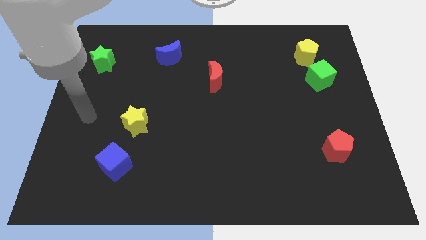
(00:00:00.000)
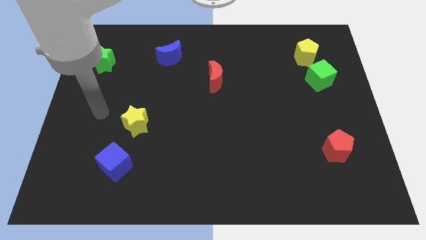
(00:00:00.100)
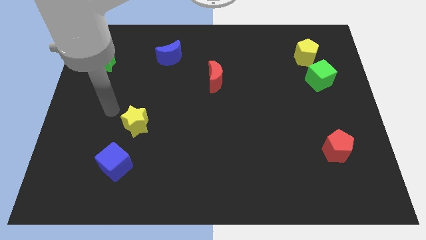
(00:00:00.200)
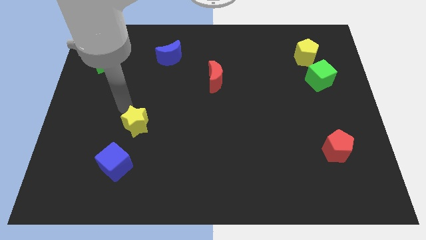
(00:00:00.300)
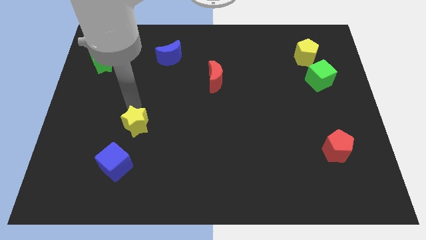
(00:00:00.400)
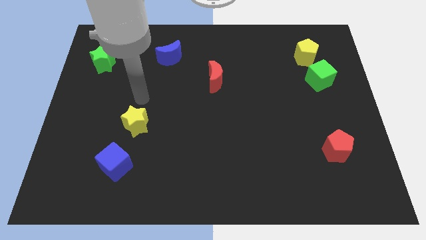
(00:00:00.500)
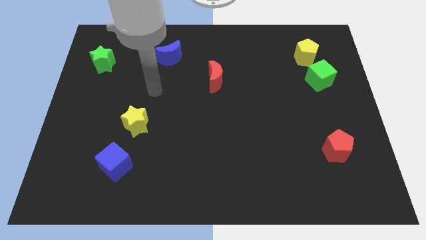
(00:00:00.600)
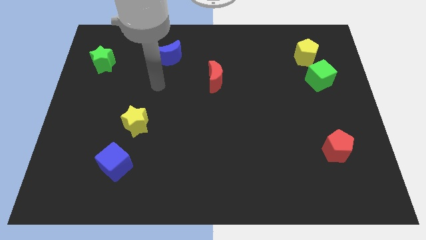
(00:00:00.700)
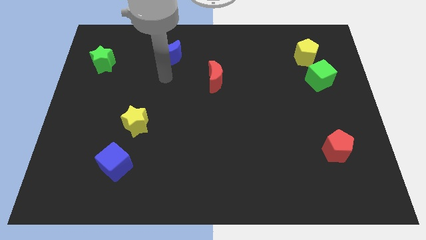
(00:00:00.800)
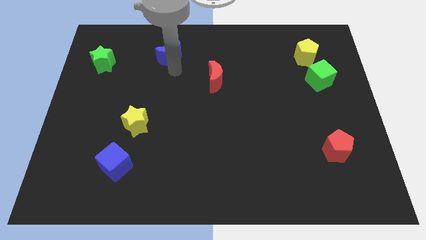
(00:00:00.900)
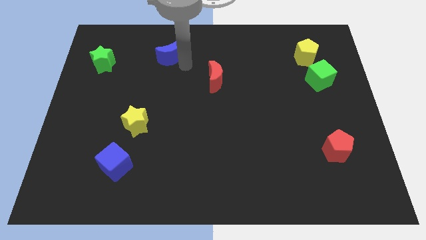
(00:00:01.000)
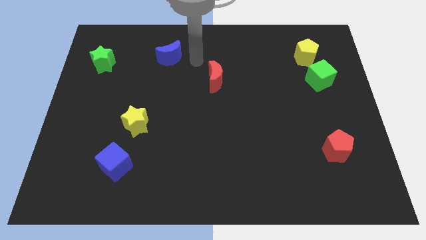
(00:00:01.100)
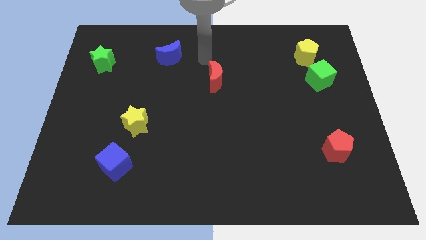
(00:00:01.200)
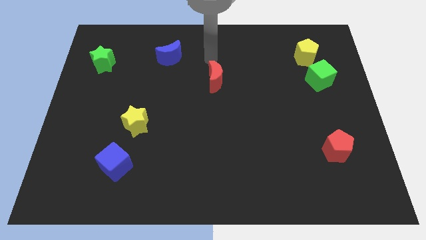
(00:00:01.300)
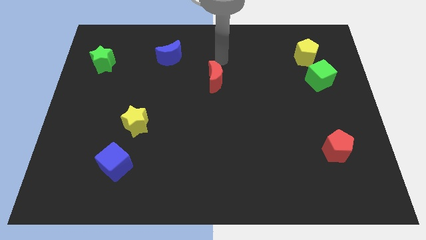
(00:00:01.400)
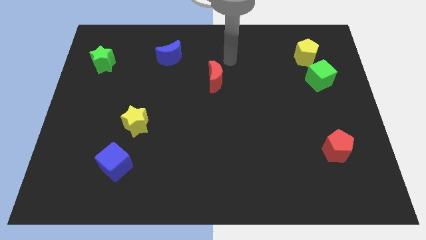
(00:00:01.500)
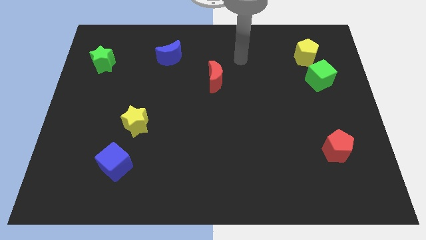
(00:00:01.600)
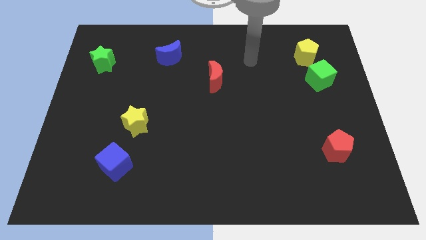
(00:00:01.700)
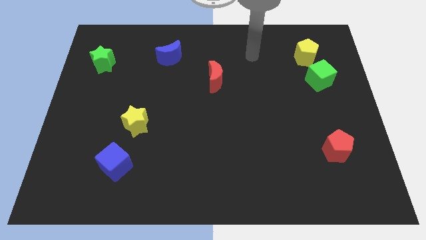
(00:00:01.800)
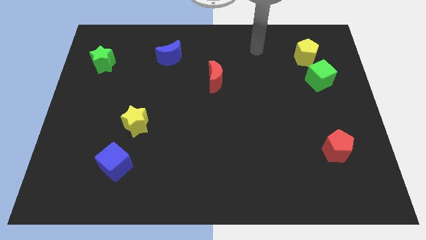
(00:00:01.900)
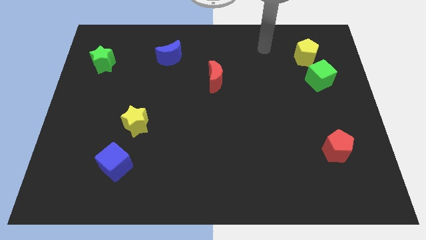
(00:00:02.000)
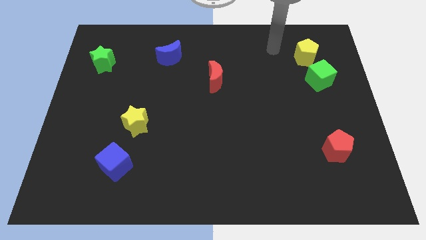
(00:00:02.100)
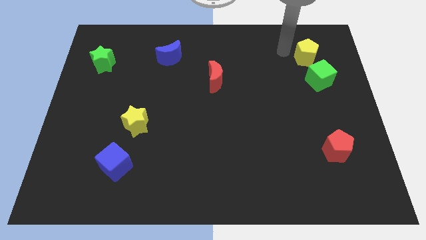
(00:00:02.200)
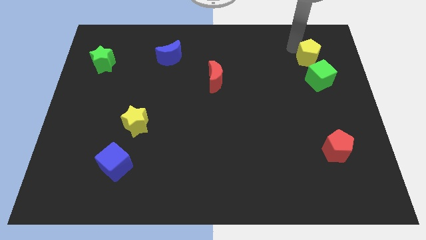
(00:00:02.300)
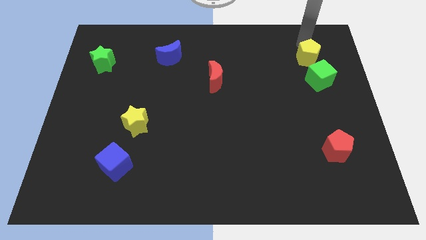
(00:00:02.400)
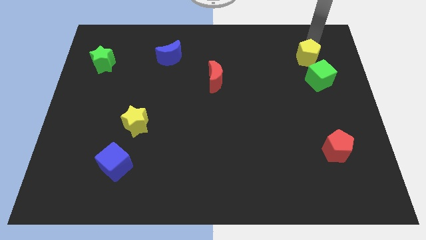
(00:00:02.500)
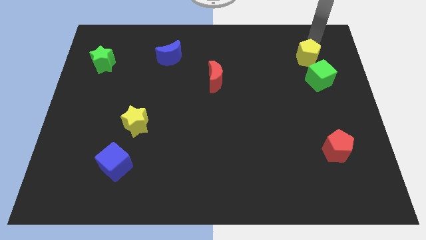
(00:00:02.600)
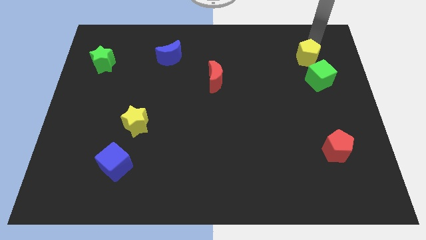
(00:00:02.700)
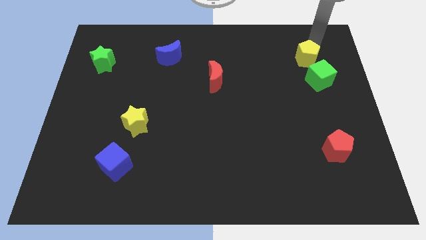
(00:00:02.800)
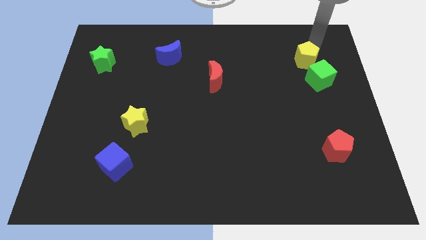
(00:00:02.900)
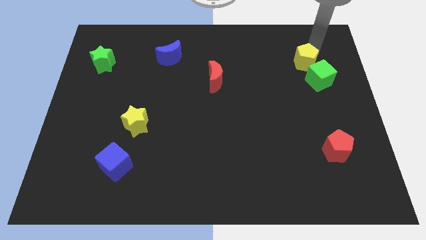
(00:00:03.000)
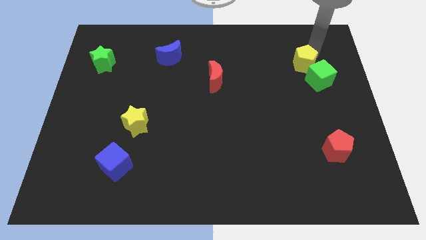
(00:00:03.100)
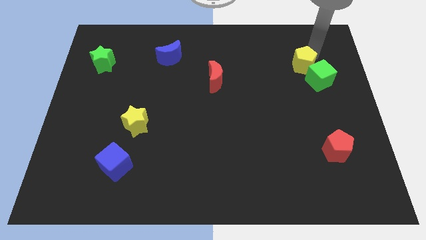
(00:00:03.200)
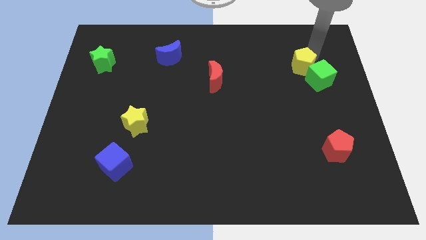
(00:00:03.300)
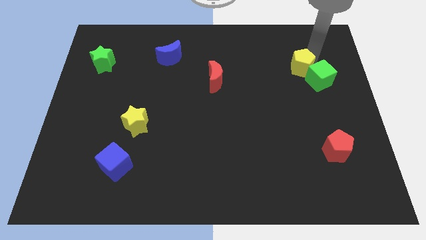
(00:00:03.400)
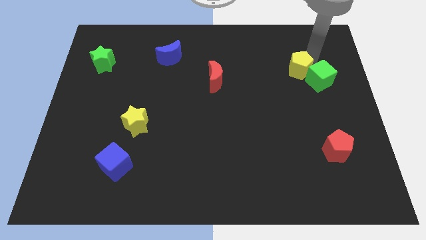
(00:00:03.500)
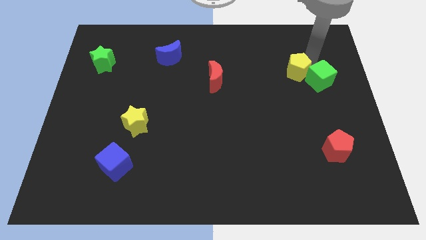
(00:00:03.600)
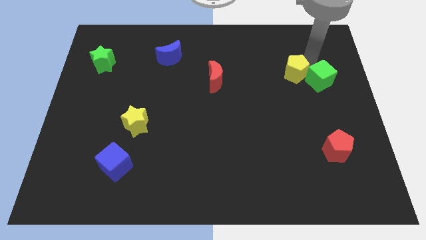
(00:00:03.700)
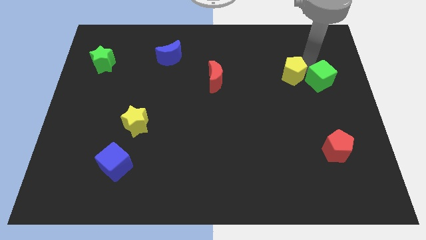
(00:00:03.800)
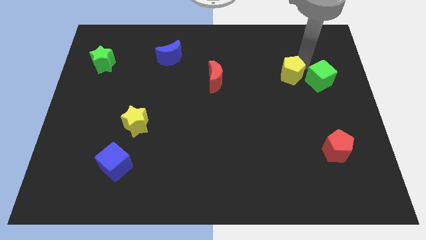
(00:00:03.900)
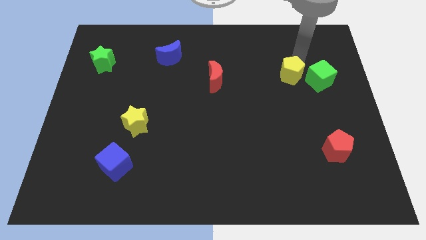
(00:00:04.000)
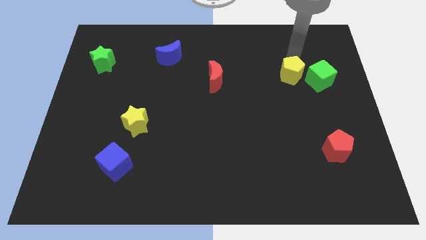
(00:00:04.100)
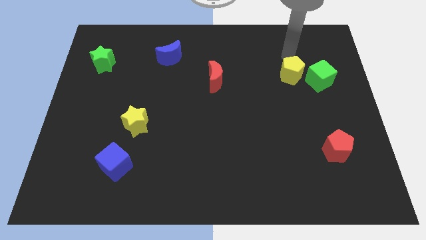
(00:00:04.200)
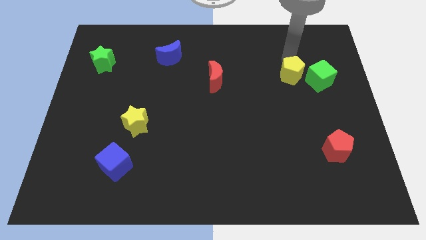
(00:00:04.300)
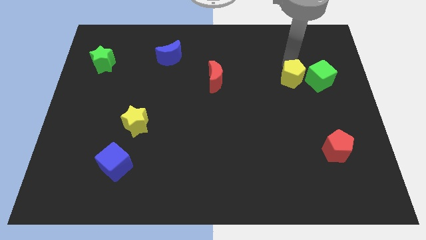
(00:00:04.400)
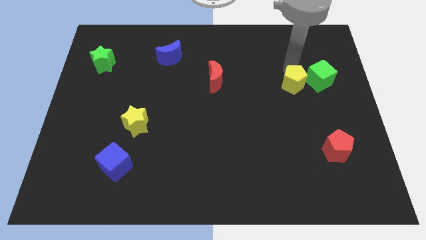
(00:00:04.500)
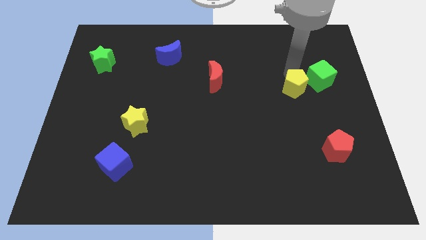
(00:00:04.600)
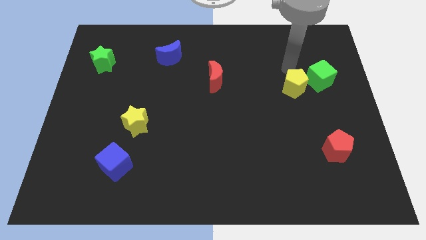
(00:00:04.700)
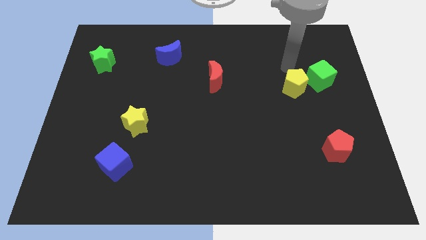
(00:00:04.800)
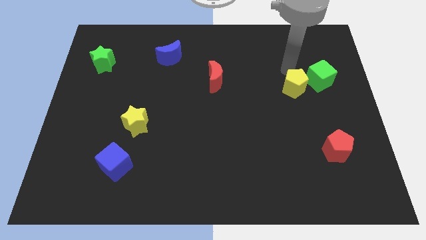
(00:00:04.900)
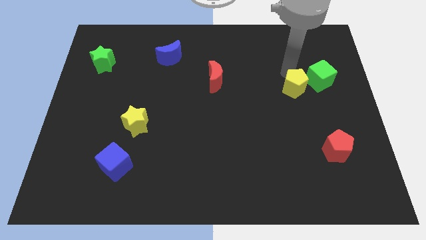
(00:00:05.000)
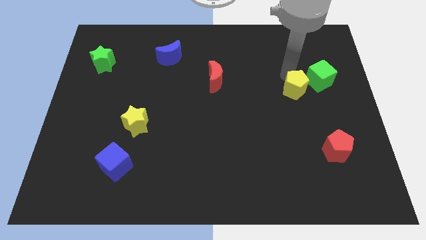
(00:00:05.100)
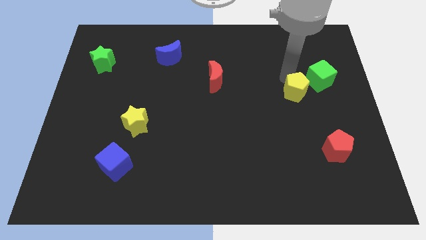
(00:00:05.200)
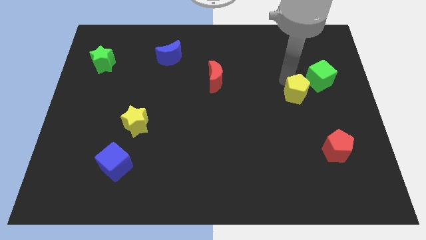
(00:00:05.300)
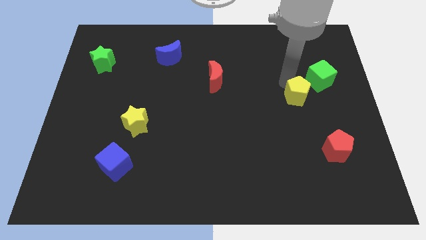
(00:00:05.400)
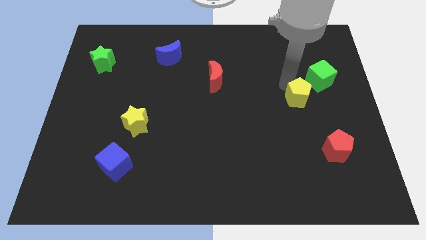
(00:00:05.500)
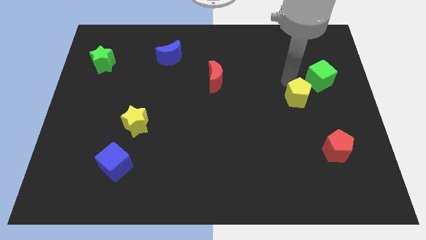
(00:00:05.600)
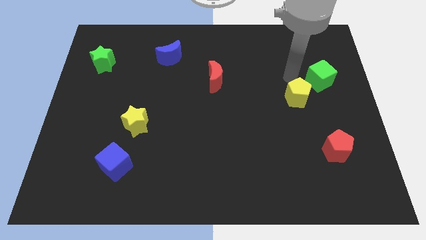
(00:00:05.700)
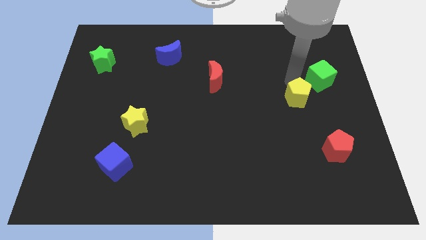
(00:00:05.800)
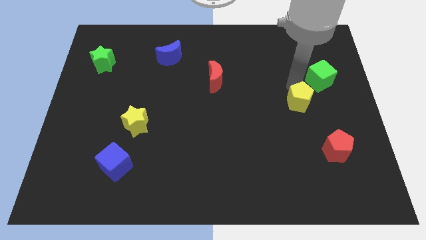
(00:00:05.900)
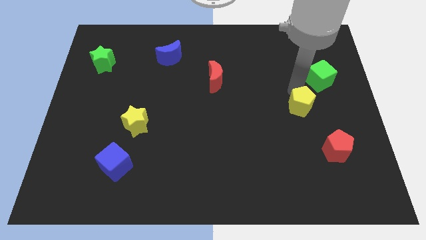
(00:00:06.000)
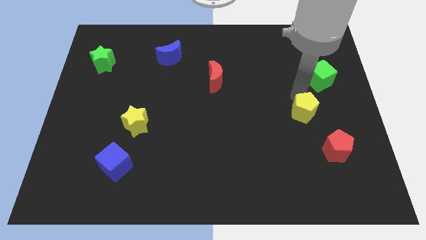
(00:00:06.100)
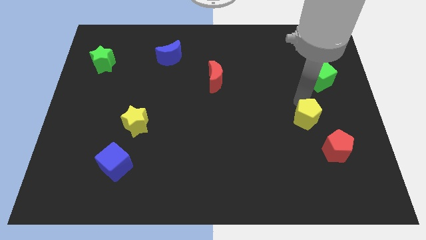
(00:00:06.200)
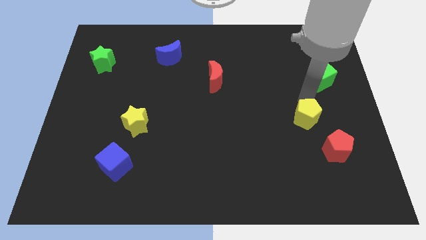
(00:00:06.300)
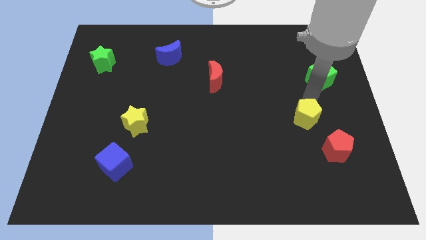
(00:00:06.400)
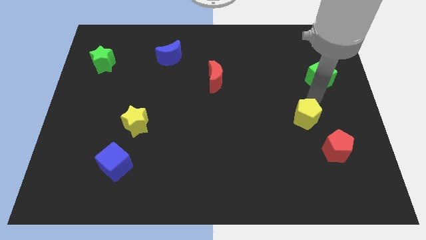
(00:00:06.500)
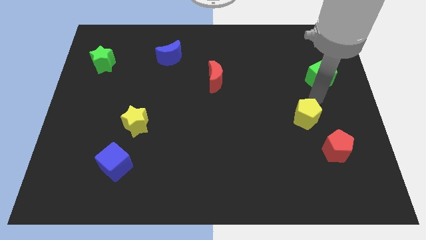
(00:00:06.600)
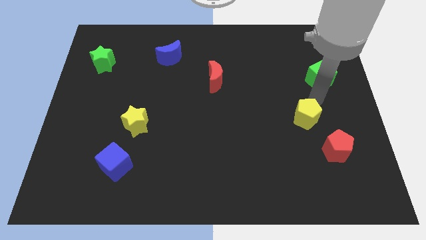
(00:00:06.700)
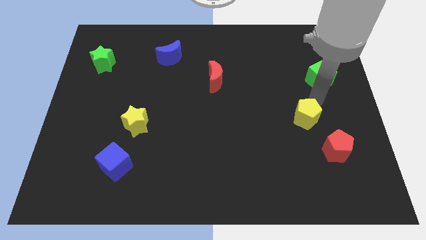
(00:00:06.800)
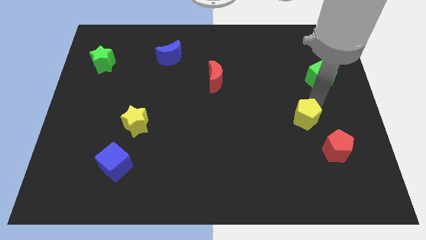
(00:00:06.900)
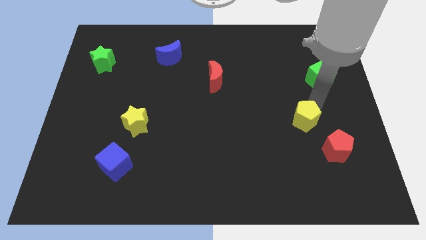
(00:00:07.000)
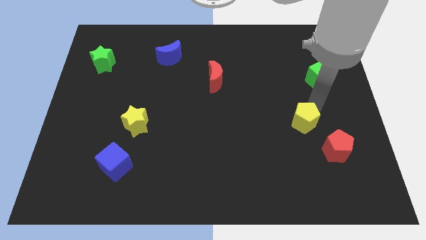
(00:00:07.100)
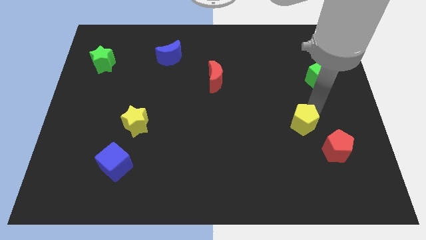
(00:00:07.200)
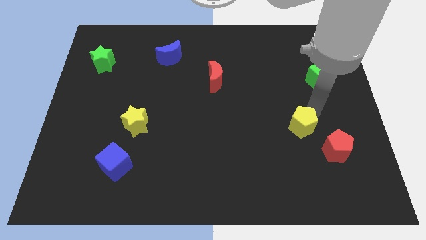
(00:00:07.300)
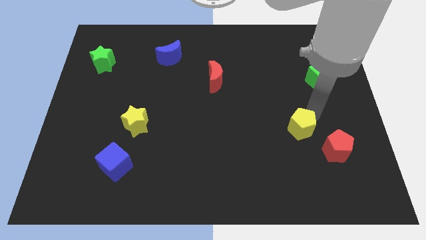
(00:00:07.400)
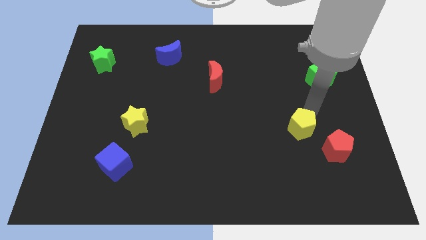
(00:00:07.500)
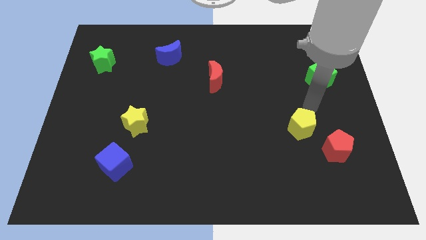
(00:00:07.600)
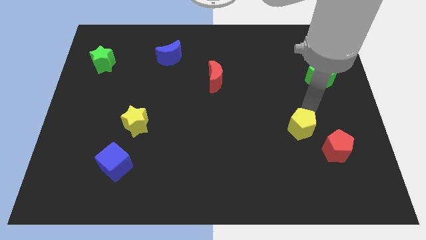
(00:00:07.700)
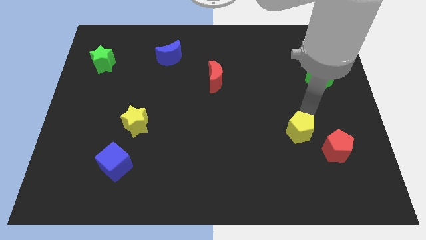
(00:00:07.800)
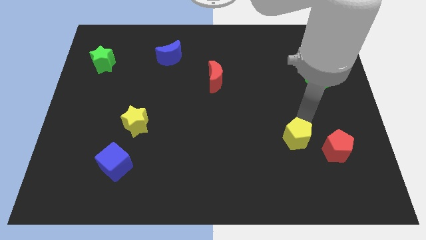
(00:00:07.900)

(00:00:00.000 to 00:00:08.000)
push the yellow pentagon to the left side of the red pentagon
